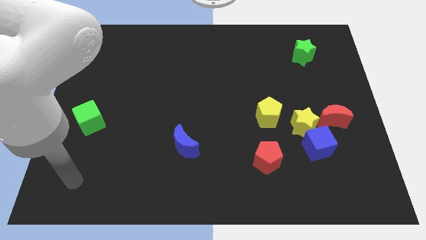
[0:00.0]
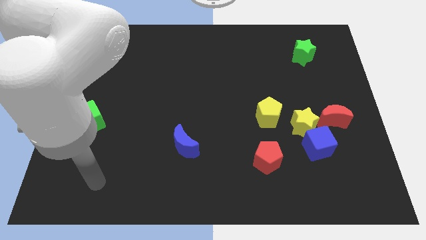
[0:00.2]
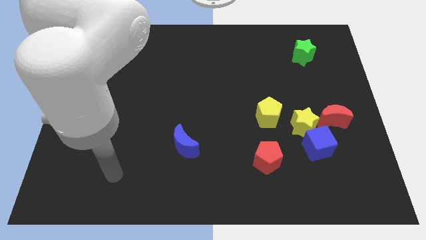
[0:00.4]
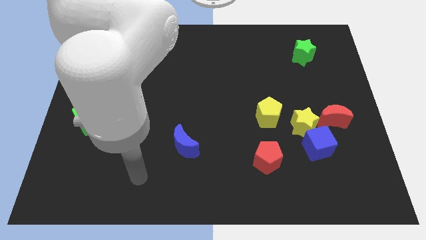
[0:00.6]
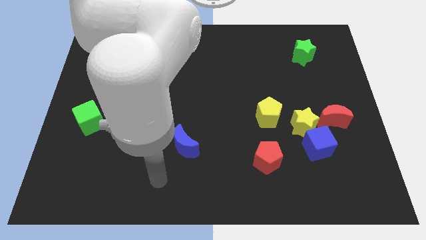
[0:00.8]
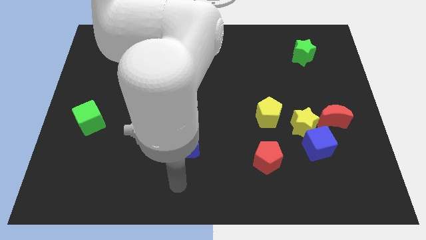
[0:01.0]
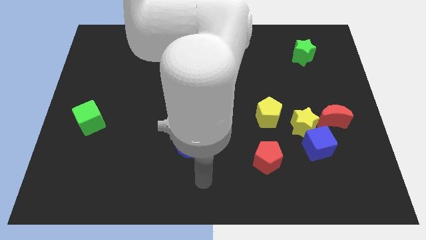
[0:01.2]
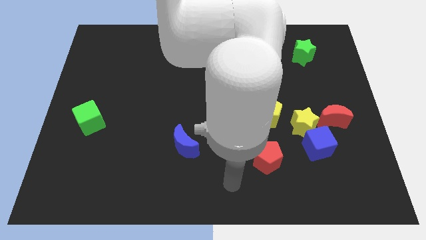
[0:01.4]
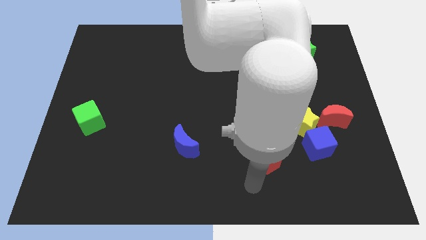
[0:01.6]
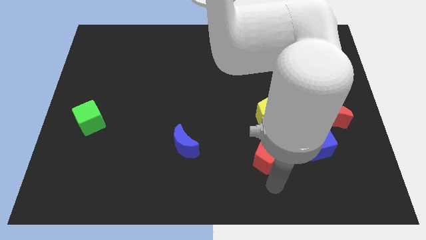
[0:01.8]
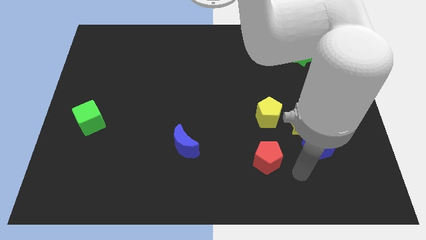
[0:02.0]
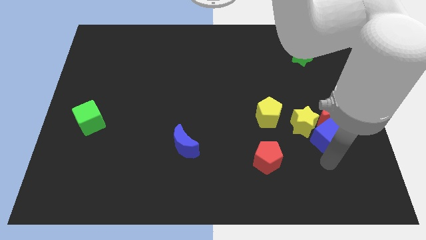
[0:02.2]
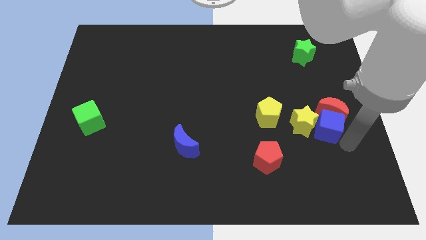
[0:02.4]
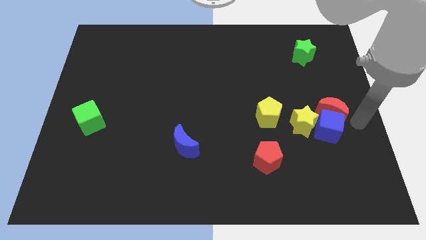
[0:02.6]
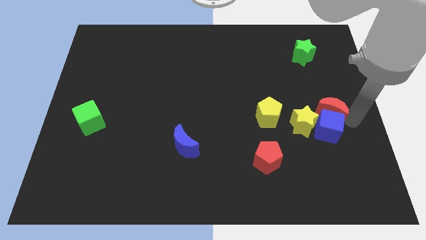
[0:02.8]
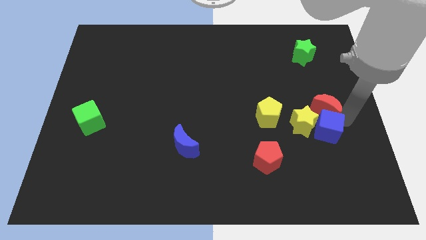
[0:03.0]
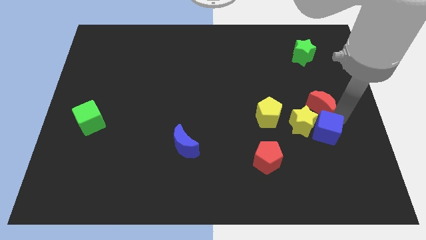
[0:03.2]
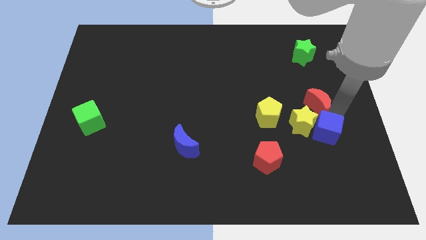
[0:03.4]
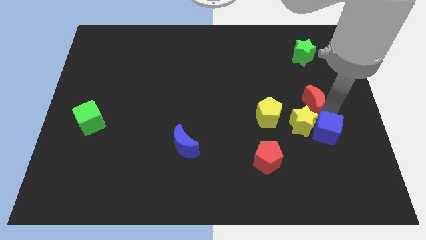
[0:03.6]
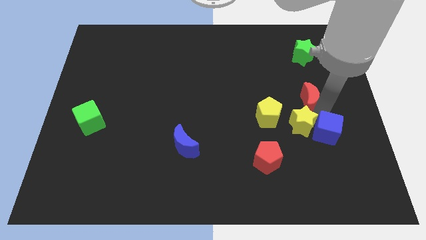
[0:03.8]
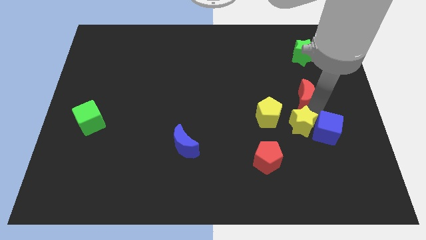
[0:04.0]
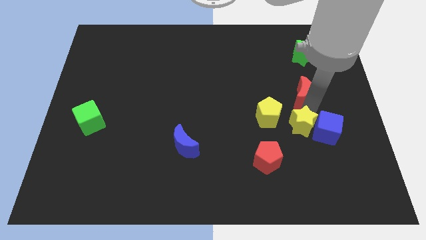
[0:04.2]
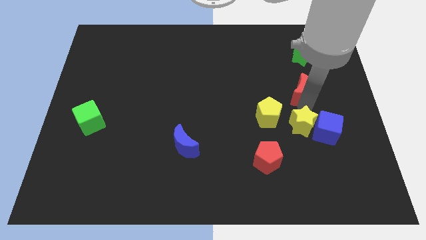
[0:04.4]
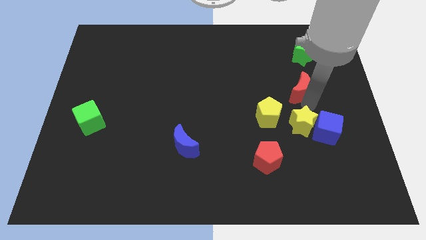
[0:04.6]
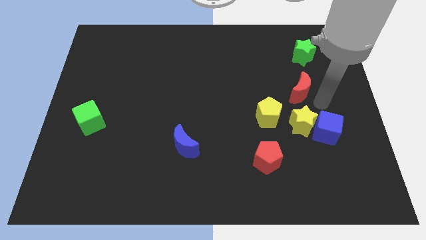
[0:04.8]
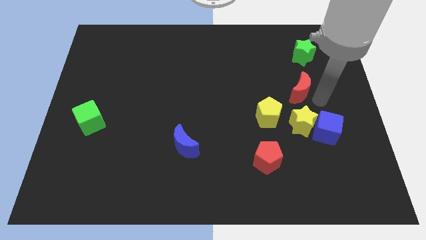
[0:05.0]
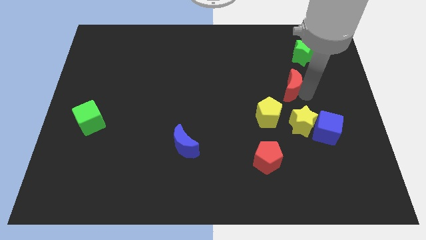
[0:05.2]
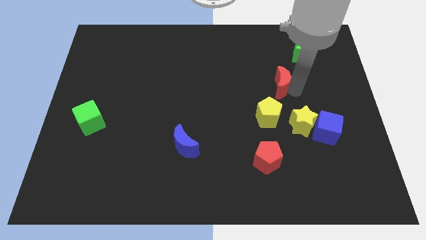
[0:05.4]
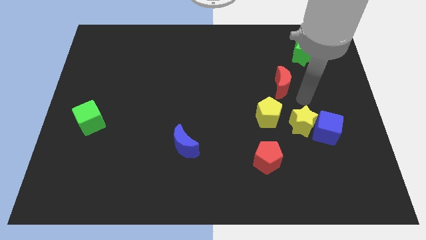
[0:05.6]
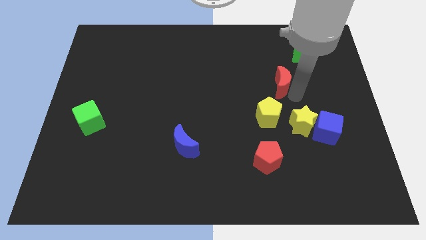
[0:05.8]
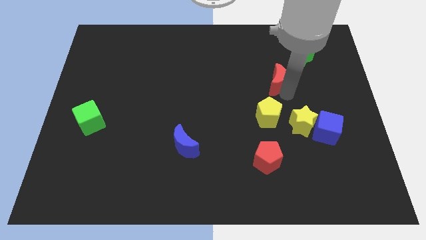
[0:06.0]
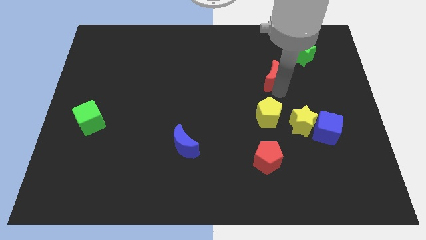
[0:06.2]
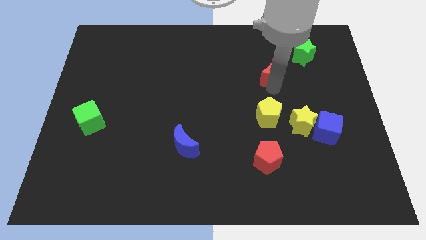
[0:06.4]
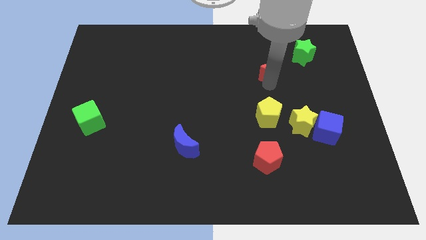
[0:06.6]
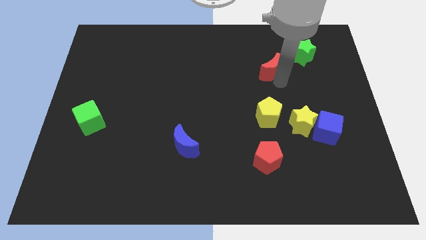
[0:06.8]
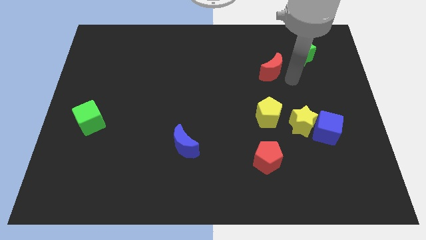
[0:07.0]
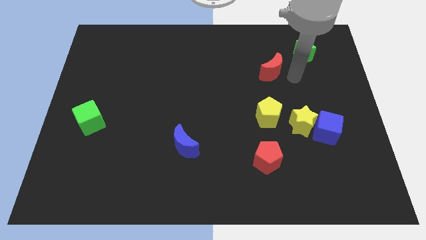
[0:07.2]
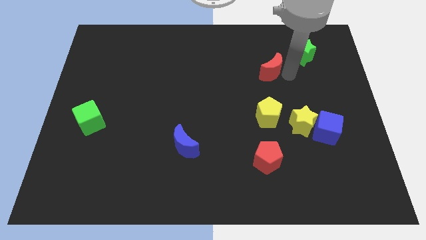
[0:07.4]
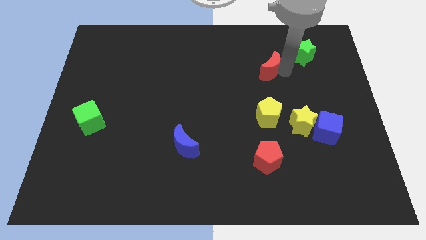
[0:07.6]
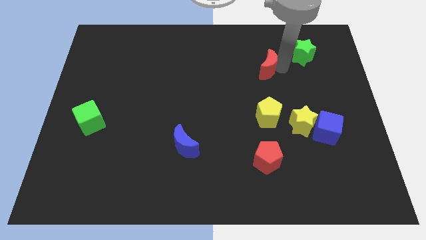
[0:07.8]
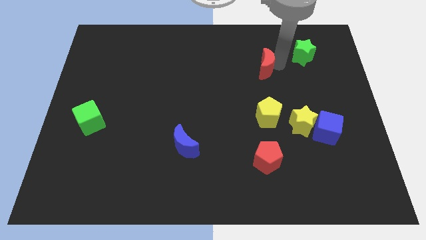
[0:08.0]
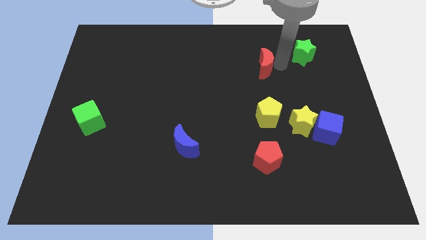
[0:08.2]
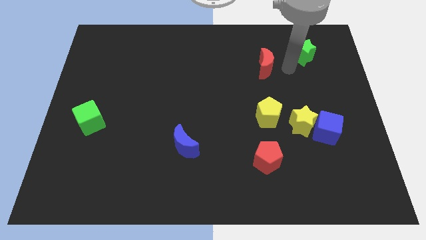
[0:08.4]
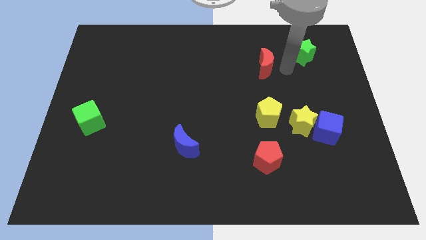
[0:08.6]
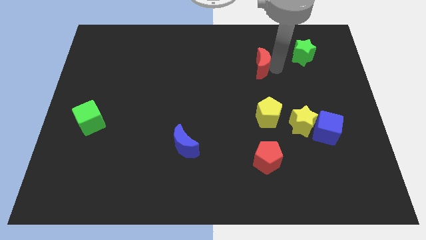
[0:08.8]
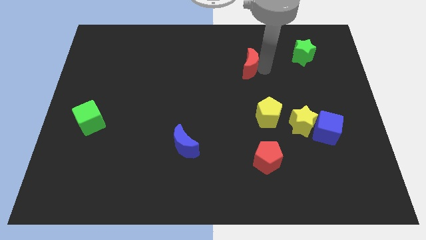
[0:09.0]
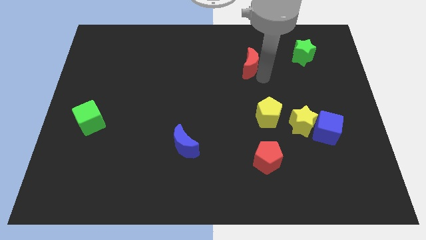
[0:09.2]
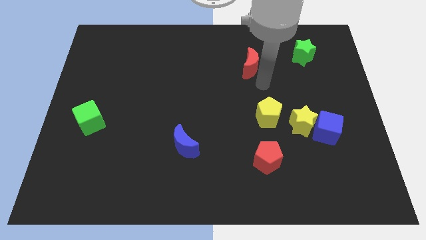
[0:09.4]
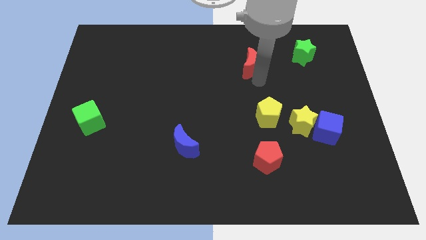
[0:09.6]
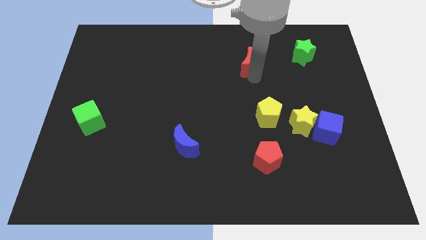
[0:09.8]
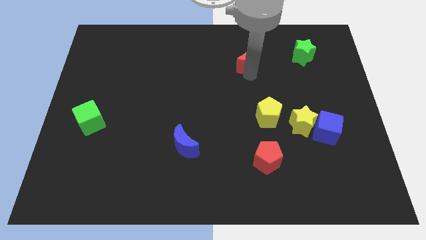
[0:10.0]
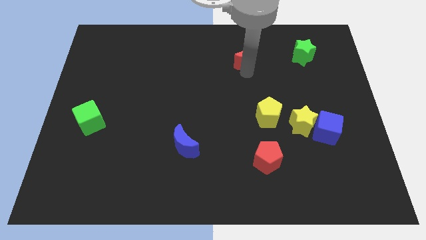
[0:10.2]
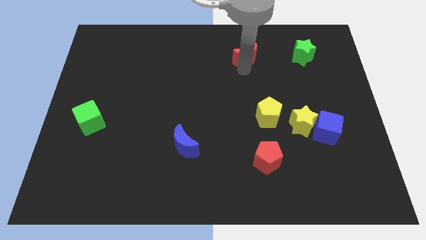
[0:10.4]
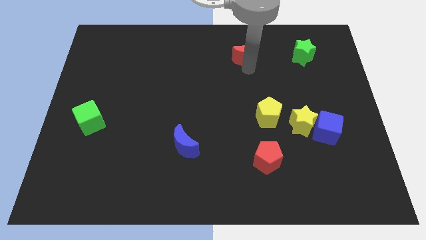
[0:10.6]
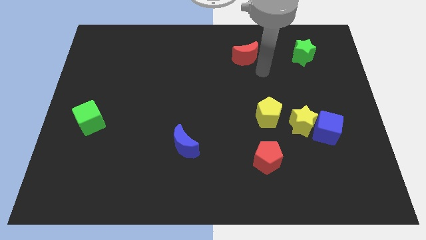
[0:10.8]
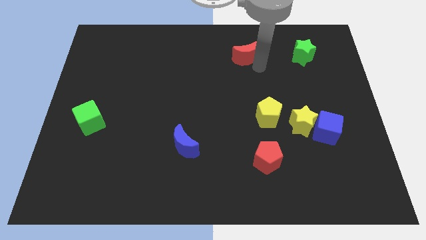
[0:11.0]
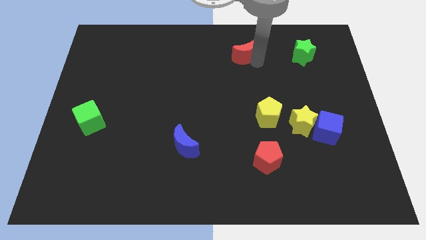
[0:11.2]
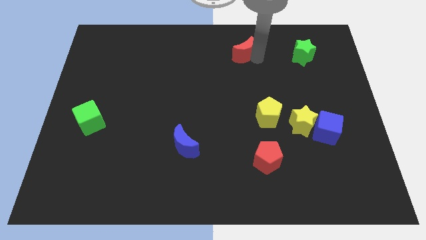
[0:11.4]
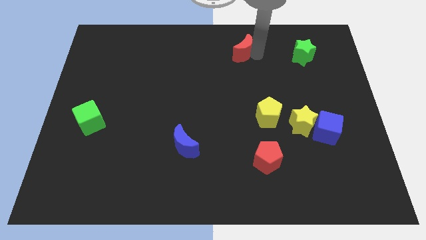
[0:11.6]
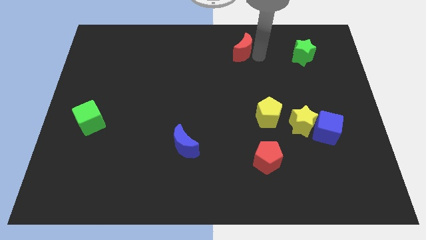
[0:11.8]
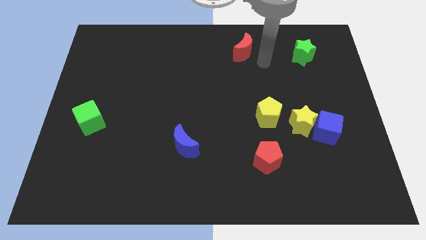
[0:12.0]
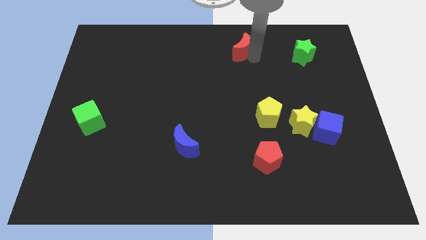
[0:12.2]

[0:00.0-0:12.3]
move the red moon to the top

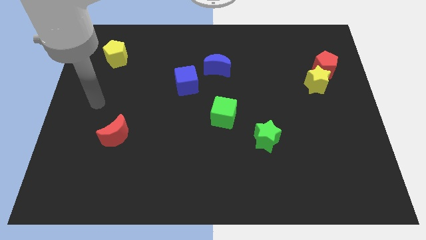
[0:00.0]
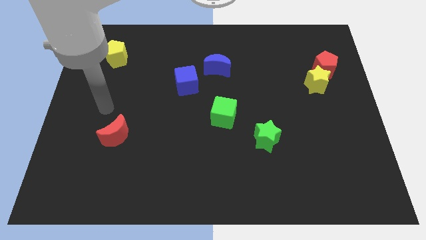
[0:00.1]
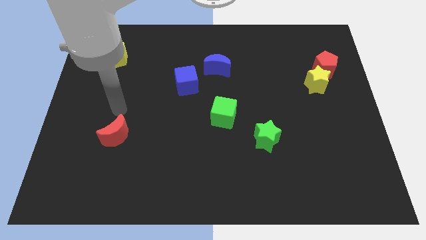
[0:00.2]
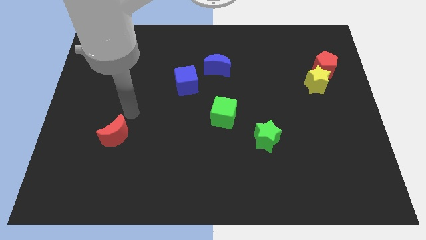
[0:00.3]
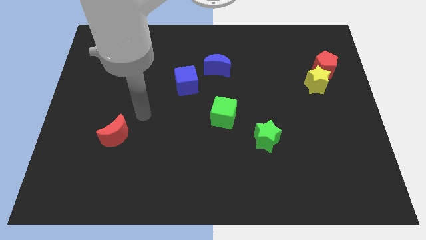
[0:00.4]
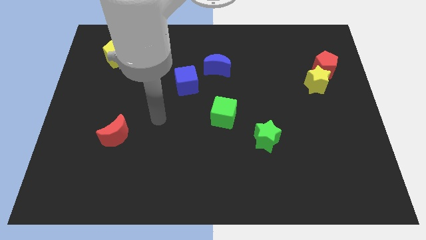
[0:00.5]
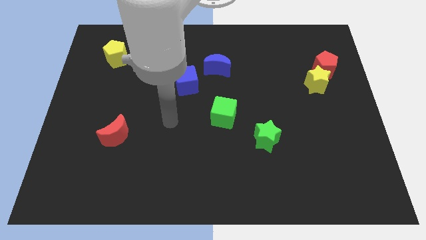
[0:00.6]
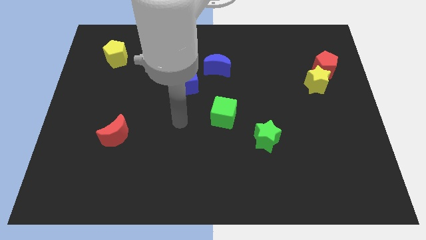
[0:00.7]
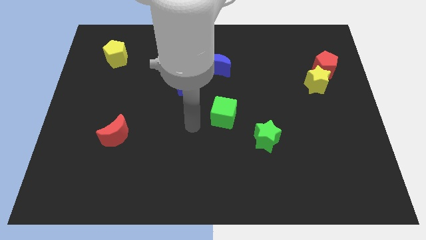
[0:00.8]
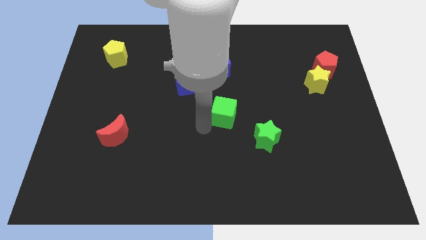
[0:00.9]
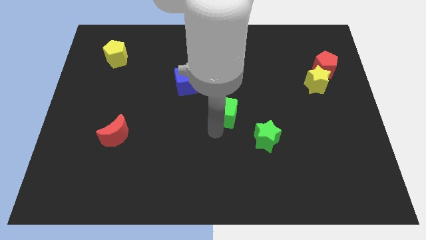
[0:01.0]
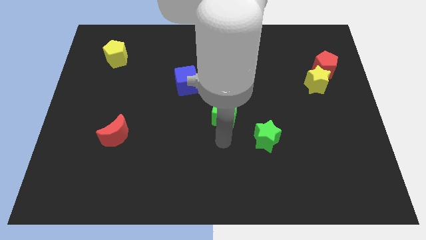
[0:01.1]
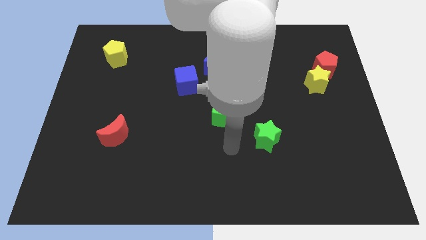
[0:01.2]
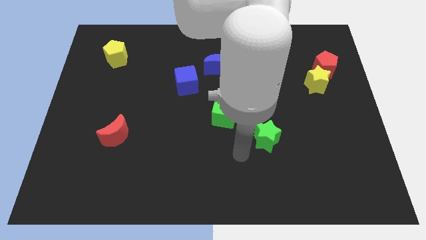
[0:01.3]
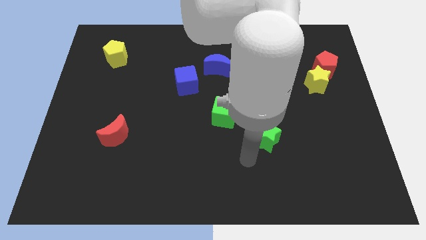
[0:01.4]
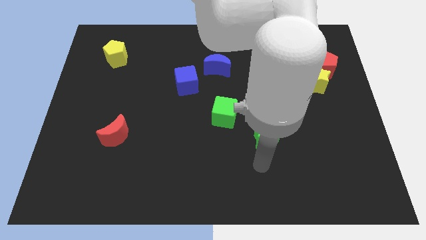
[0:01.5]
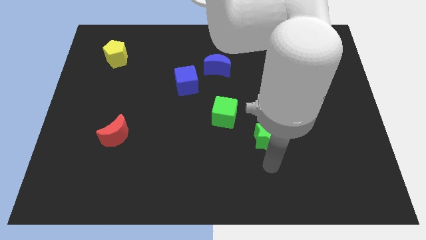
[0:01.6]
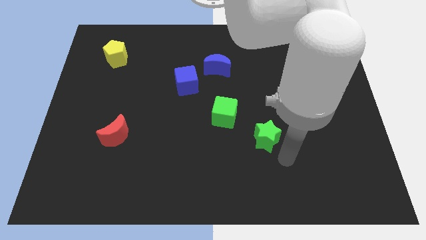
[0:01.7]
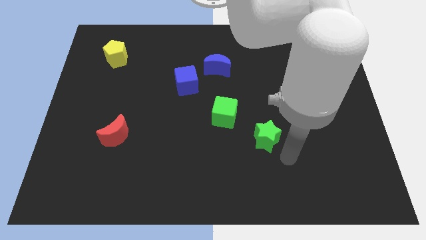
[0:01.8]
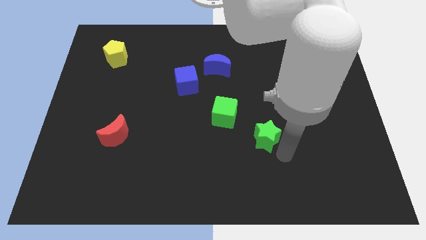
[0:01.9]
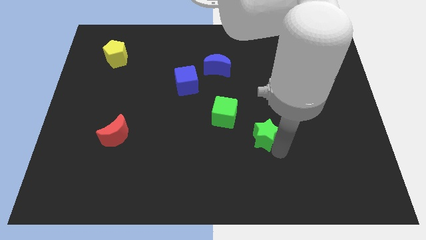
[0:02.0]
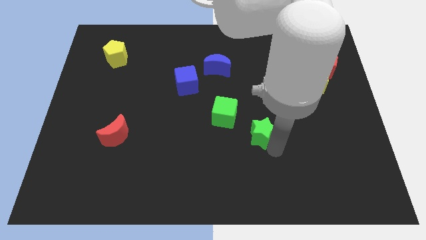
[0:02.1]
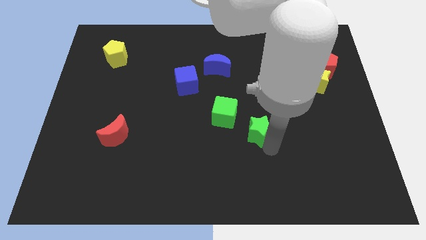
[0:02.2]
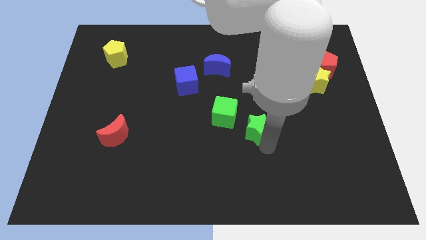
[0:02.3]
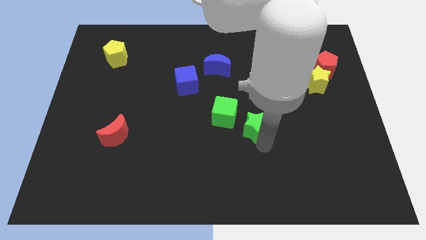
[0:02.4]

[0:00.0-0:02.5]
push the green star to the middle of the board
